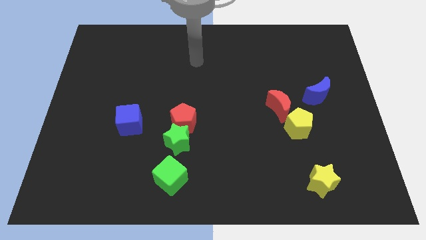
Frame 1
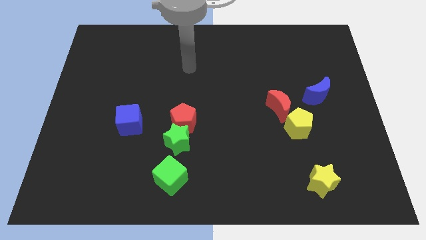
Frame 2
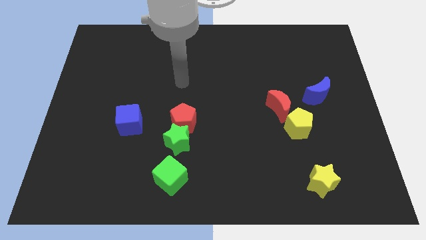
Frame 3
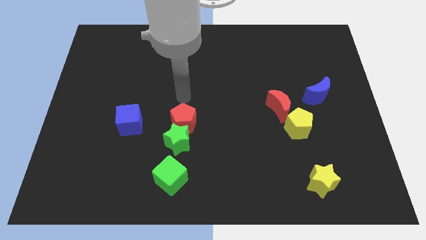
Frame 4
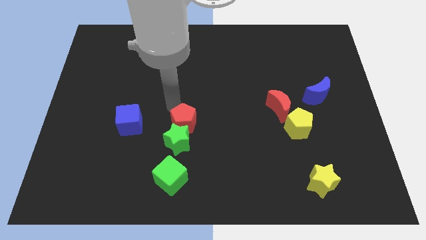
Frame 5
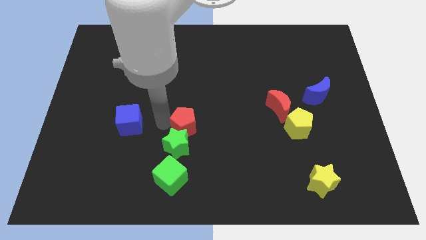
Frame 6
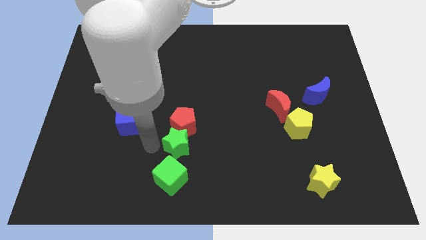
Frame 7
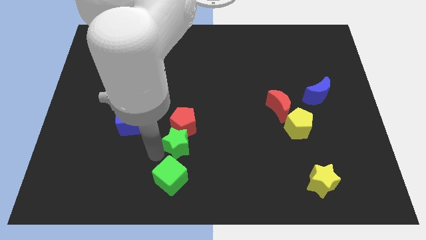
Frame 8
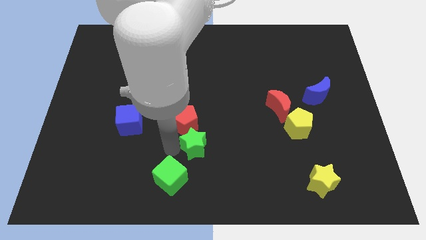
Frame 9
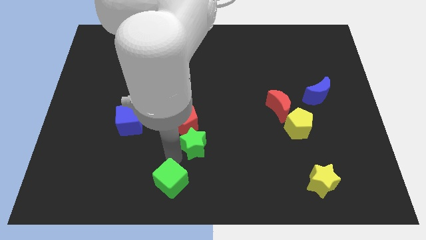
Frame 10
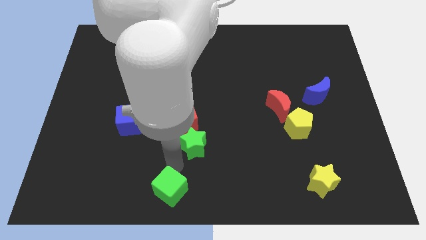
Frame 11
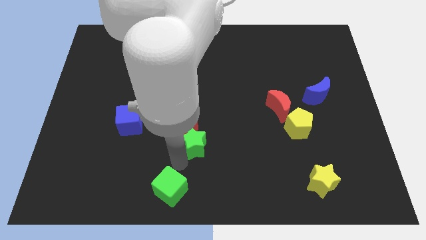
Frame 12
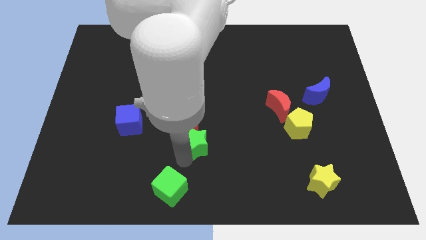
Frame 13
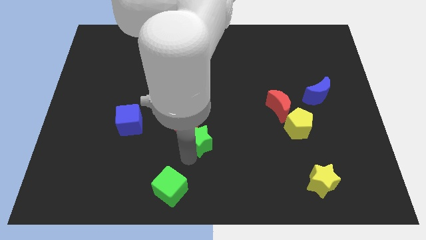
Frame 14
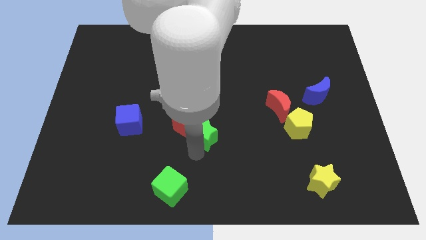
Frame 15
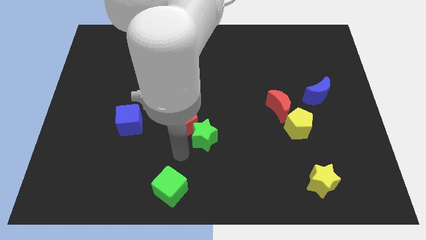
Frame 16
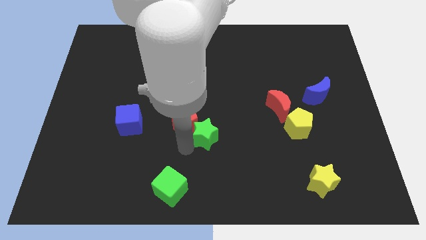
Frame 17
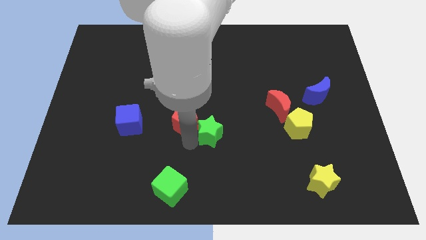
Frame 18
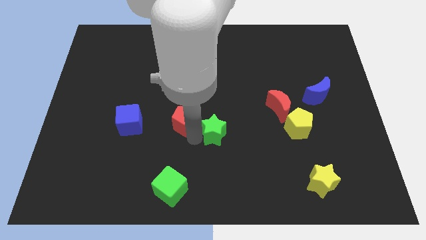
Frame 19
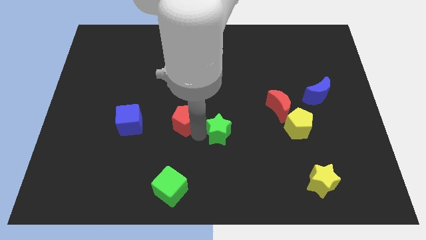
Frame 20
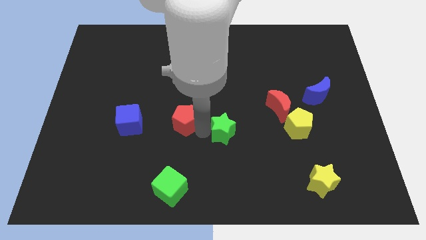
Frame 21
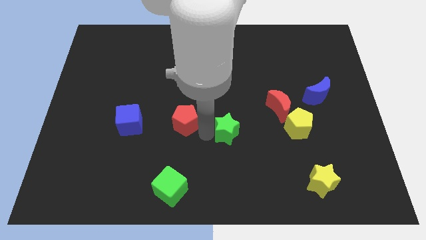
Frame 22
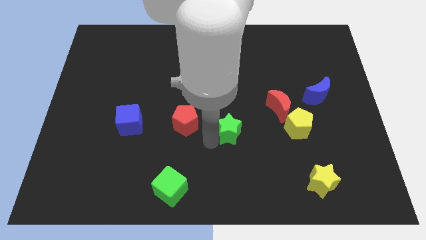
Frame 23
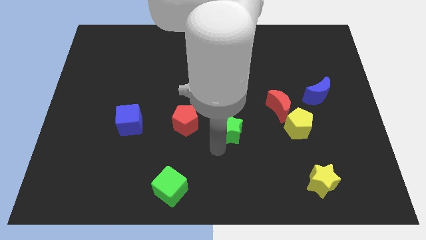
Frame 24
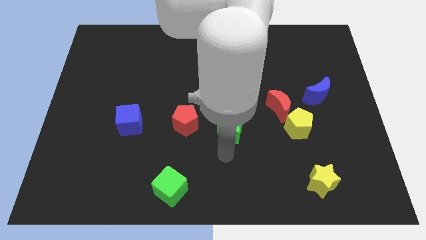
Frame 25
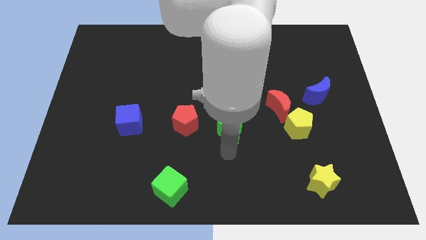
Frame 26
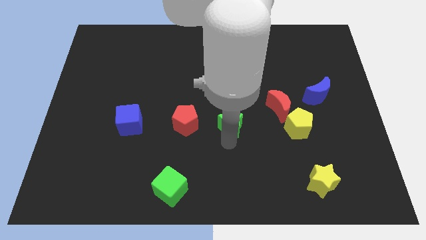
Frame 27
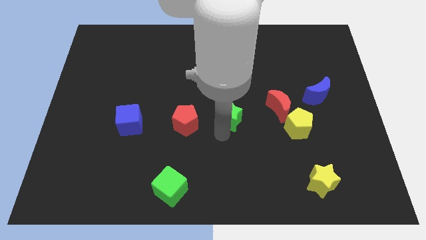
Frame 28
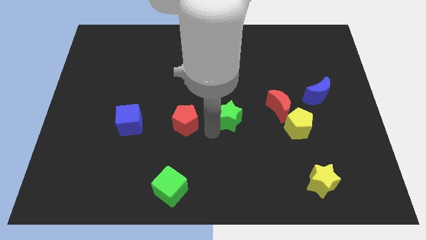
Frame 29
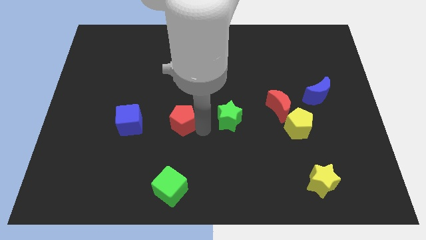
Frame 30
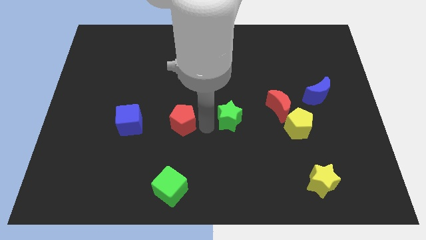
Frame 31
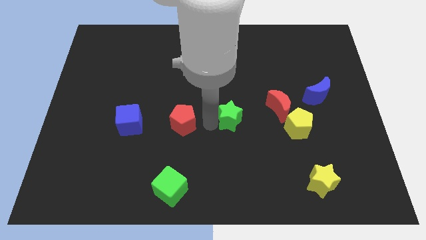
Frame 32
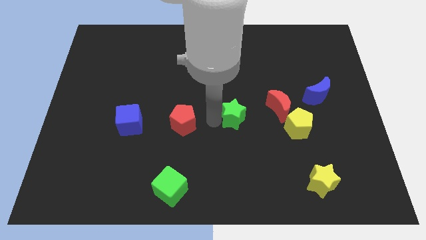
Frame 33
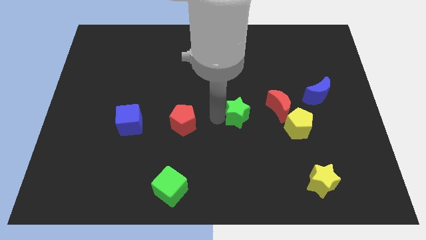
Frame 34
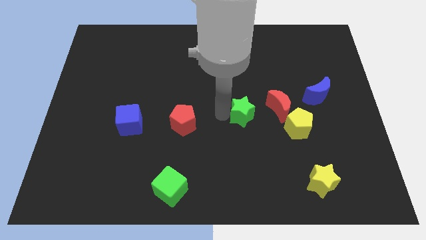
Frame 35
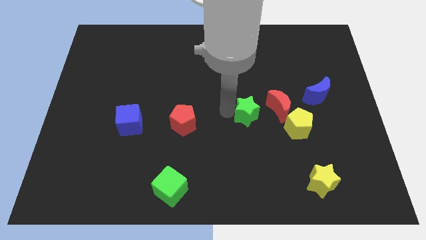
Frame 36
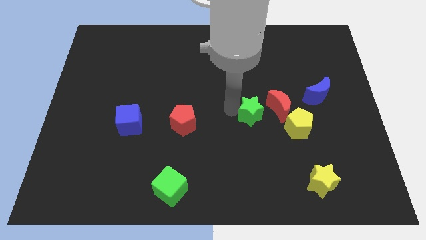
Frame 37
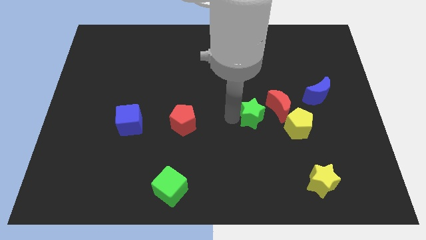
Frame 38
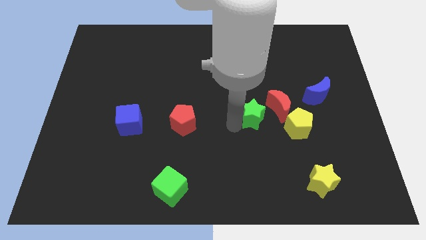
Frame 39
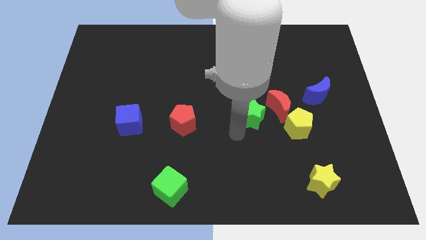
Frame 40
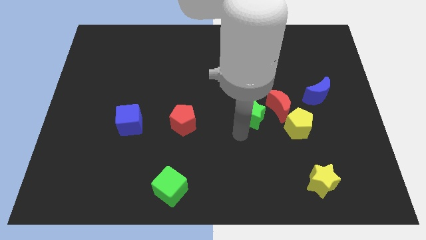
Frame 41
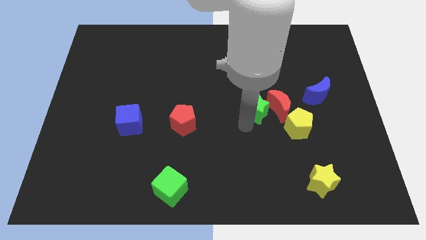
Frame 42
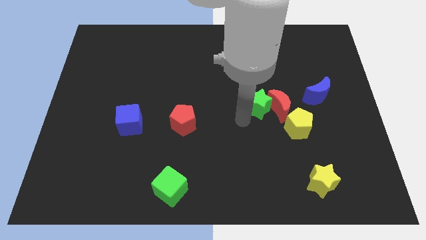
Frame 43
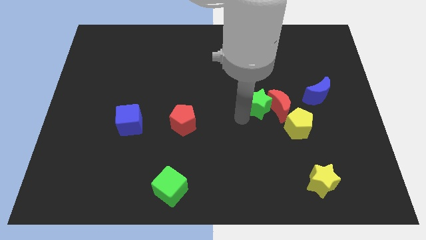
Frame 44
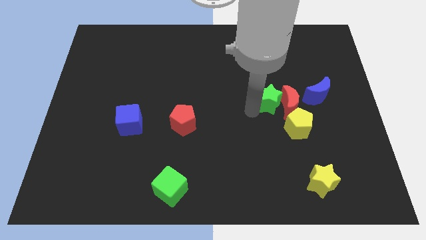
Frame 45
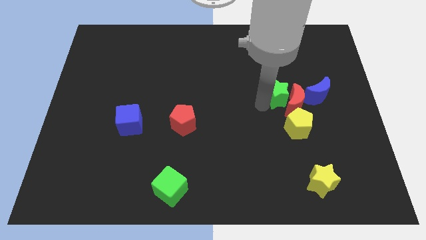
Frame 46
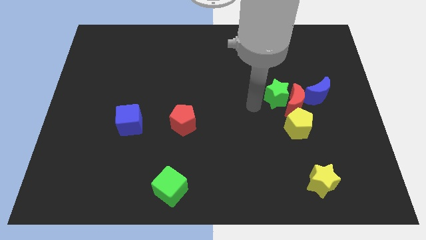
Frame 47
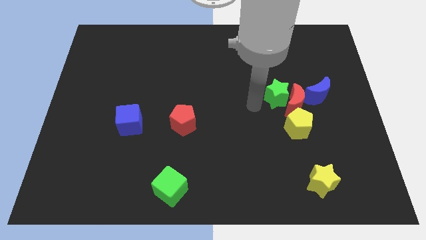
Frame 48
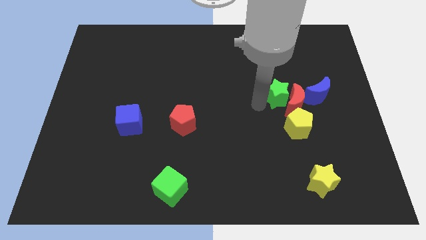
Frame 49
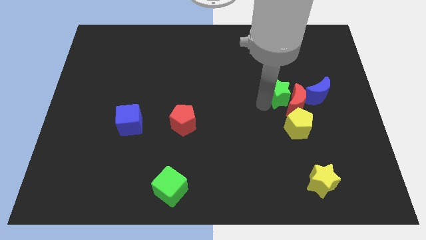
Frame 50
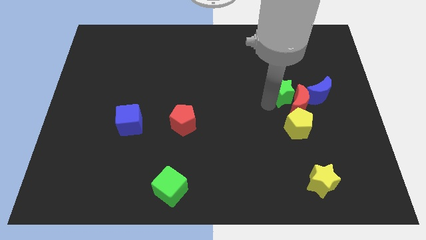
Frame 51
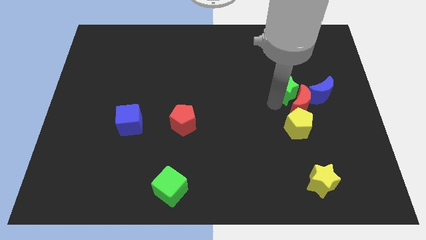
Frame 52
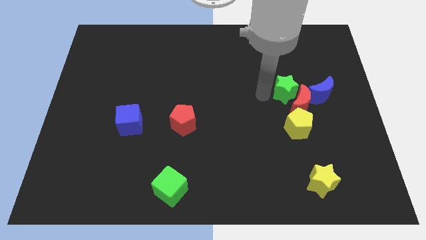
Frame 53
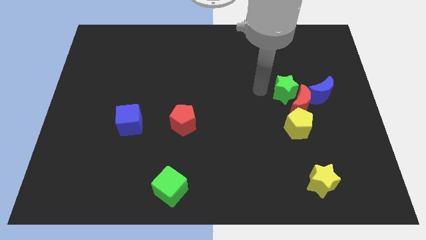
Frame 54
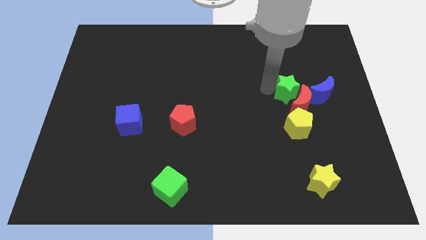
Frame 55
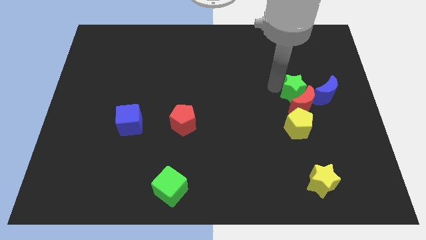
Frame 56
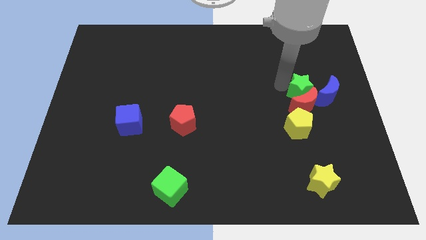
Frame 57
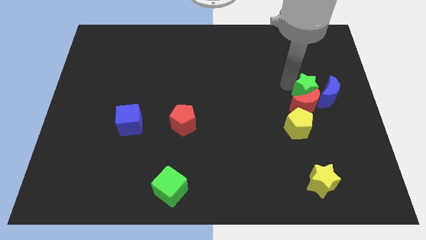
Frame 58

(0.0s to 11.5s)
push the green star to the blue moon

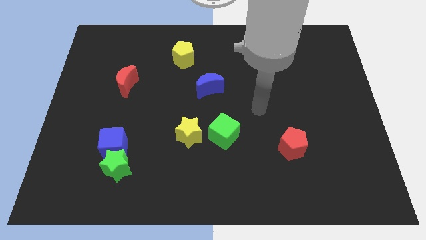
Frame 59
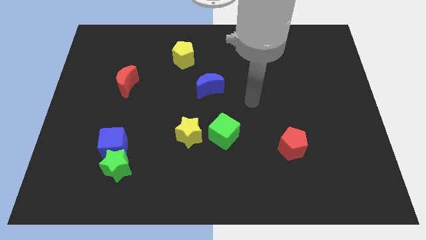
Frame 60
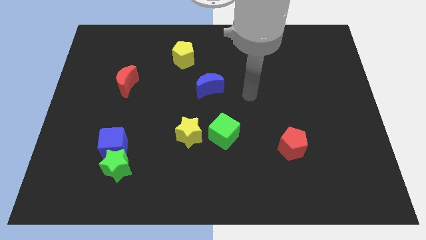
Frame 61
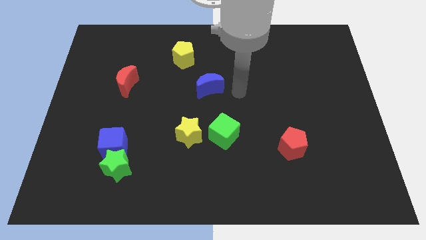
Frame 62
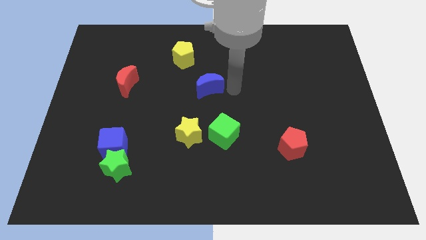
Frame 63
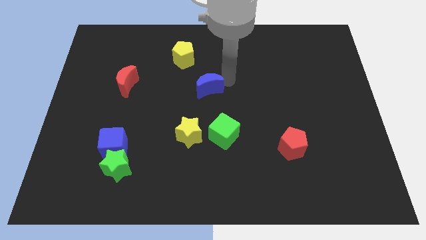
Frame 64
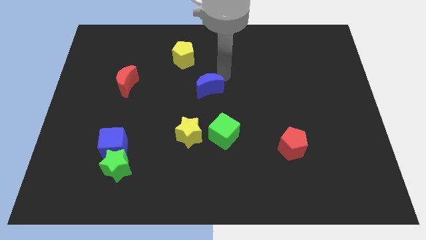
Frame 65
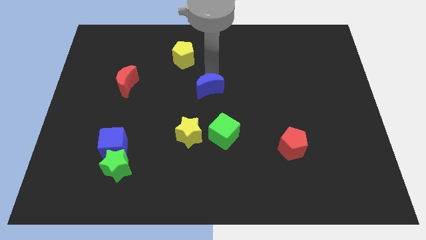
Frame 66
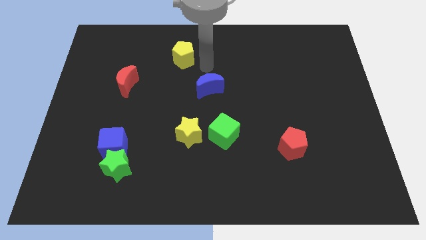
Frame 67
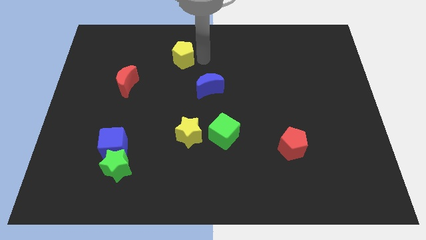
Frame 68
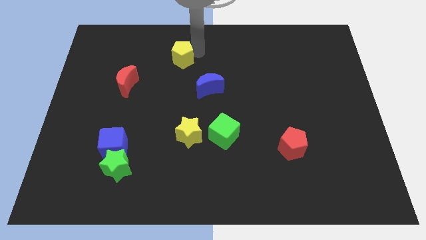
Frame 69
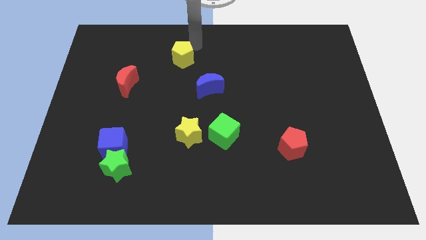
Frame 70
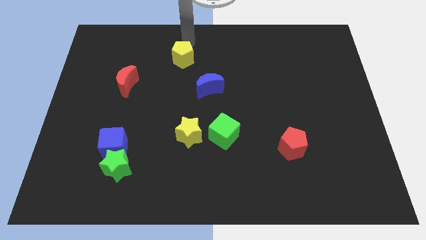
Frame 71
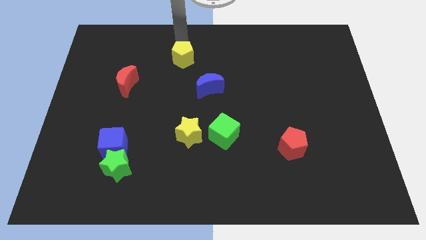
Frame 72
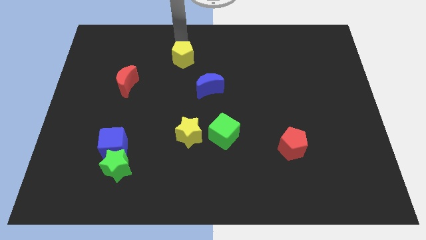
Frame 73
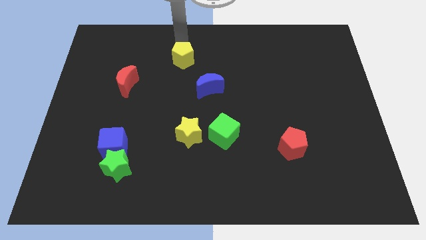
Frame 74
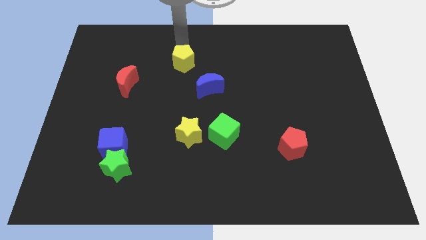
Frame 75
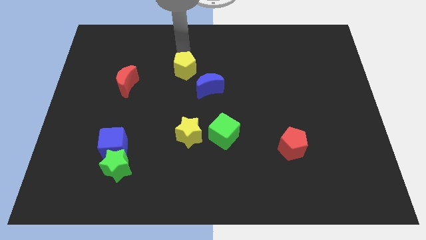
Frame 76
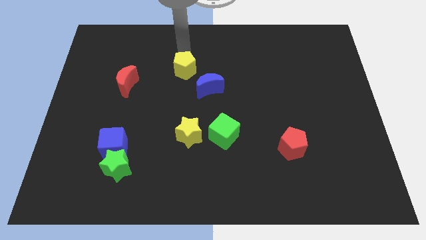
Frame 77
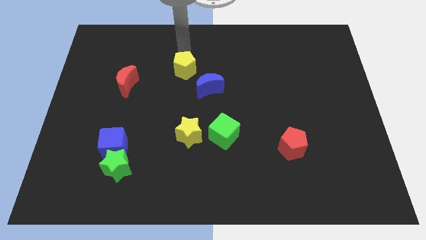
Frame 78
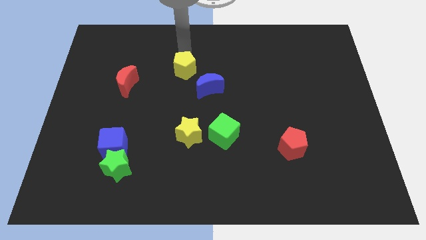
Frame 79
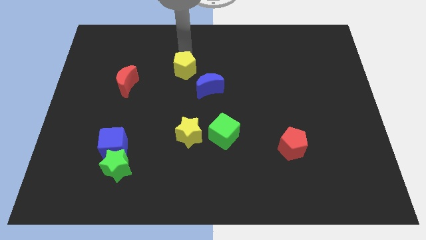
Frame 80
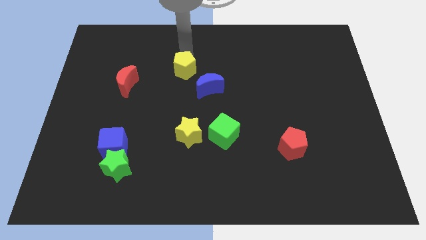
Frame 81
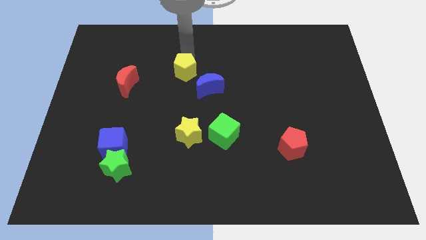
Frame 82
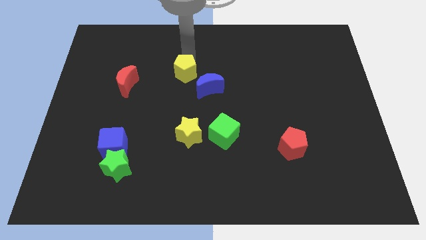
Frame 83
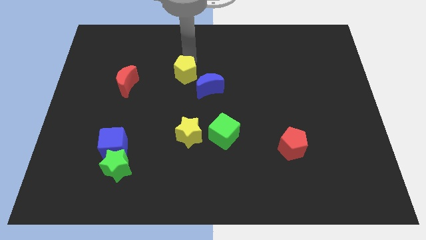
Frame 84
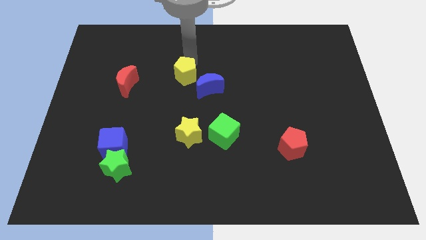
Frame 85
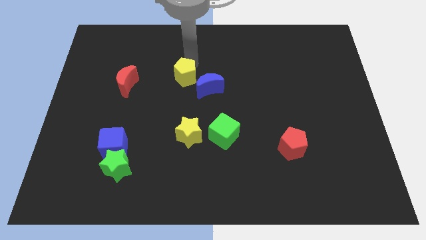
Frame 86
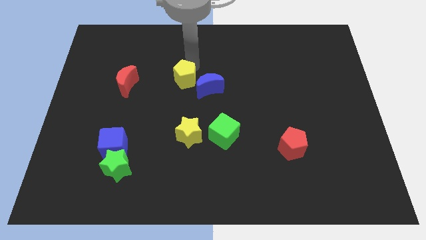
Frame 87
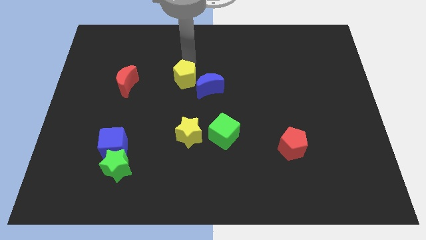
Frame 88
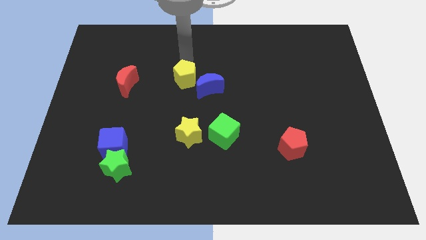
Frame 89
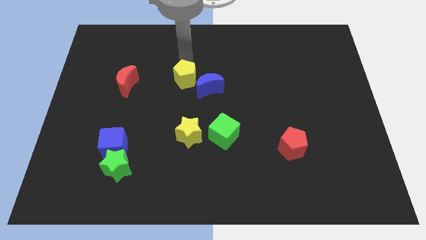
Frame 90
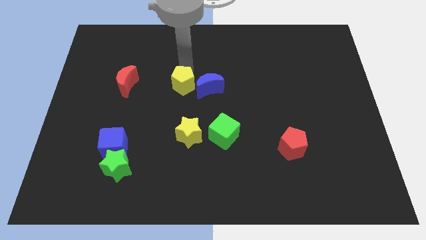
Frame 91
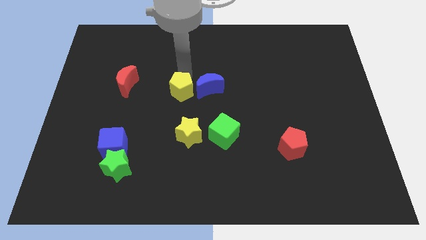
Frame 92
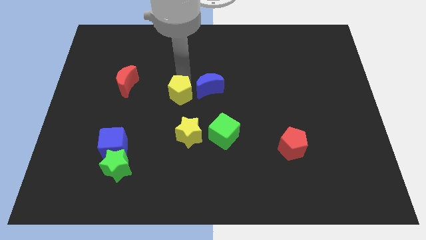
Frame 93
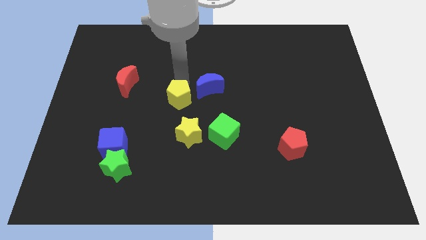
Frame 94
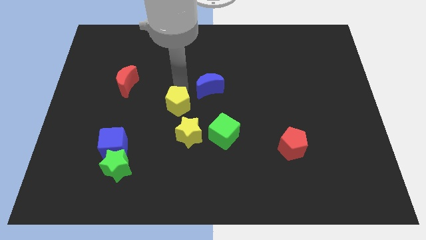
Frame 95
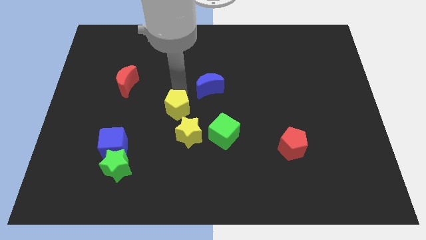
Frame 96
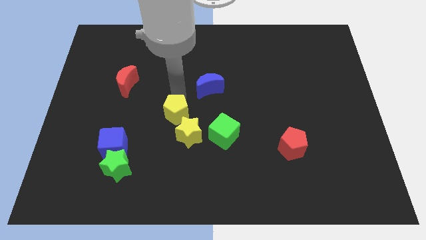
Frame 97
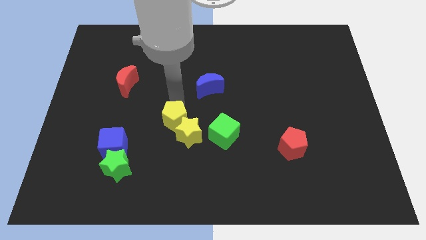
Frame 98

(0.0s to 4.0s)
slide the yellow pentagon next to the yellow star
